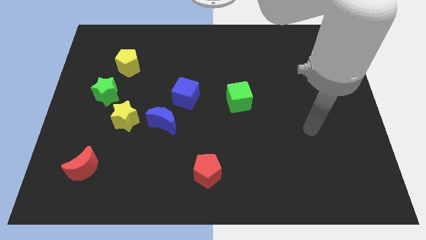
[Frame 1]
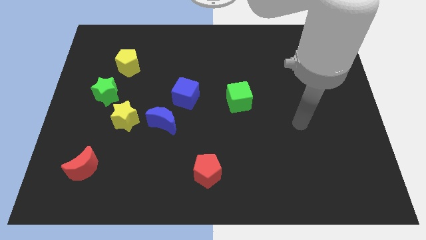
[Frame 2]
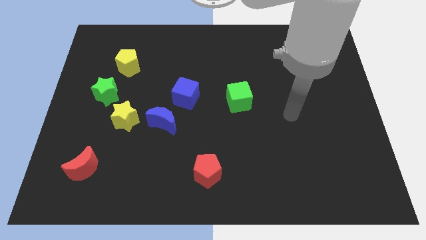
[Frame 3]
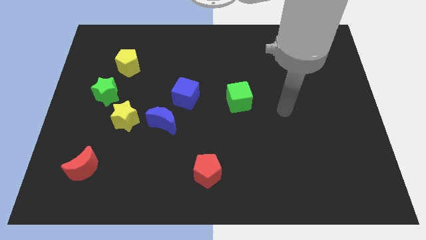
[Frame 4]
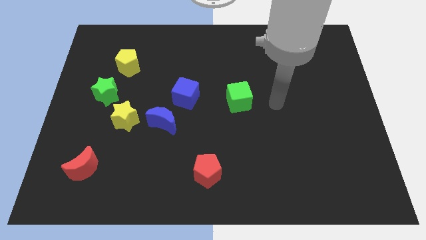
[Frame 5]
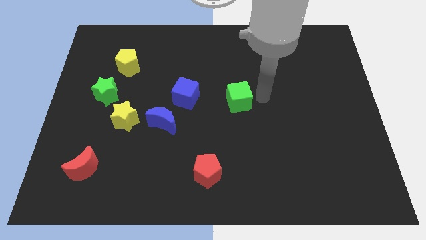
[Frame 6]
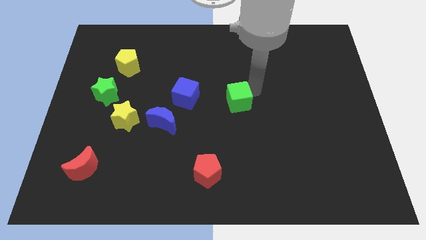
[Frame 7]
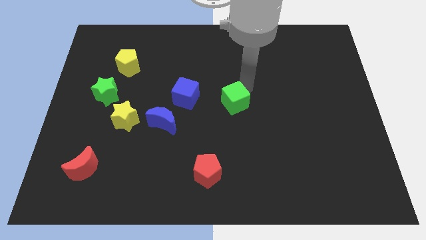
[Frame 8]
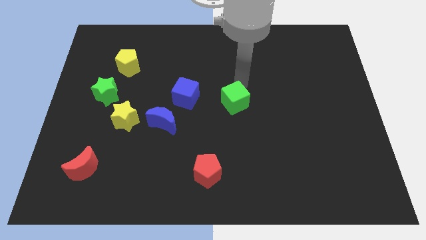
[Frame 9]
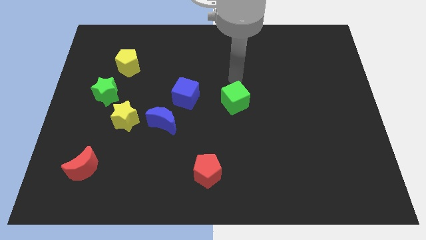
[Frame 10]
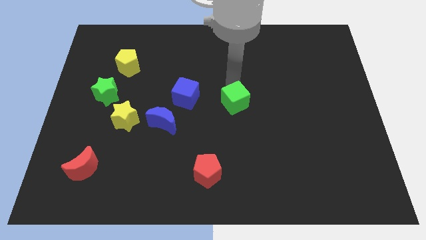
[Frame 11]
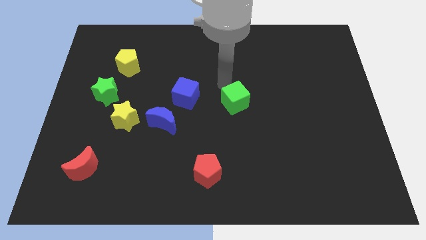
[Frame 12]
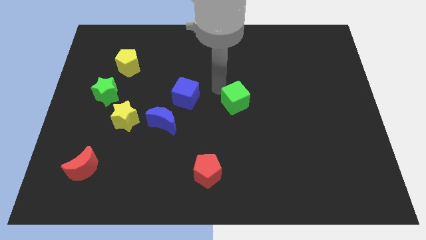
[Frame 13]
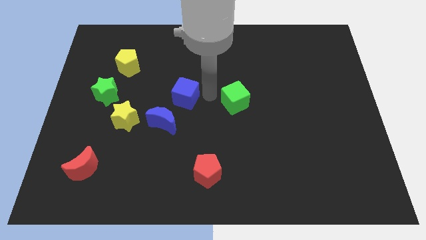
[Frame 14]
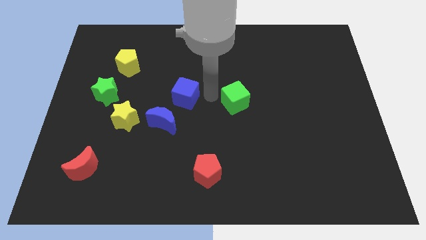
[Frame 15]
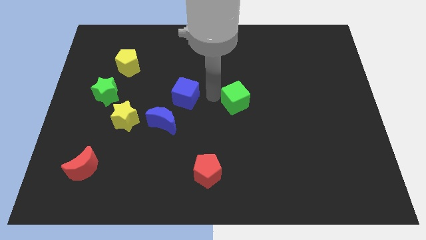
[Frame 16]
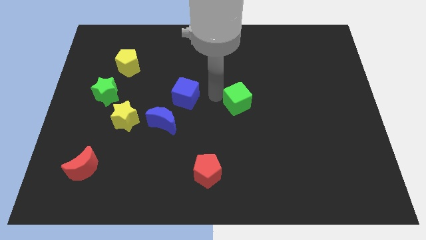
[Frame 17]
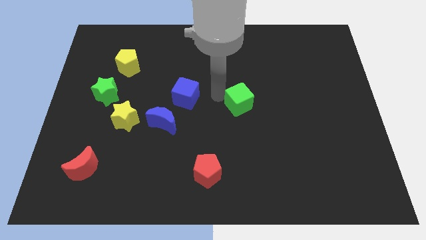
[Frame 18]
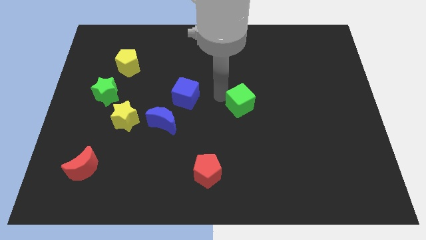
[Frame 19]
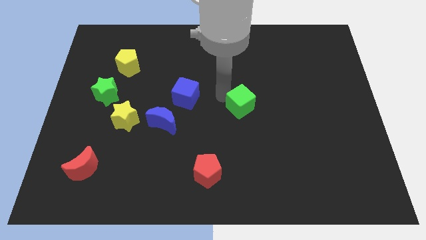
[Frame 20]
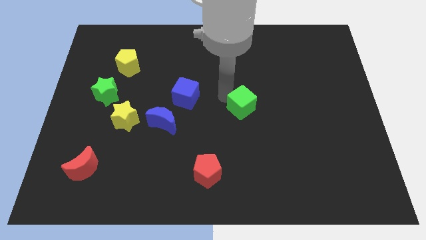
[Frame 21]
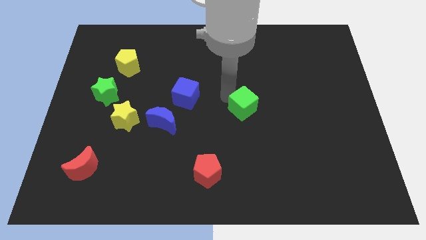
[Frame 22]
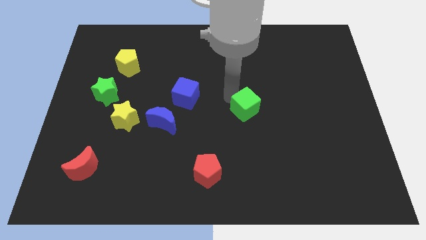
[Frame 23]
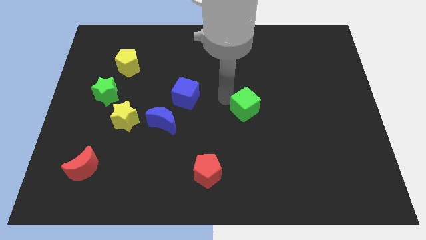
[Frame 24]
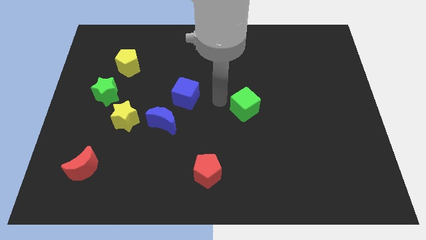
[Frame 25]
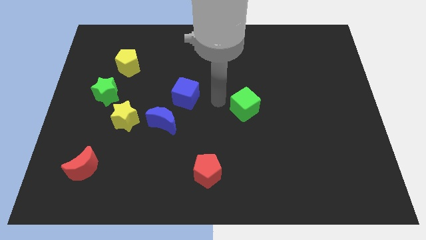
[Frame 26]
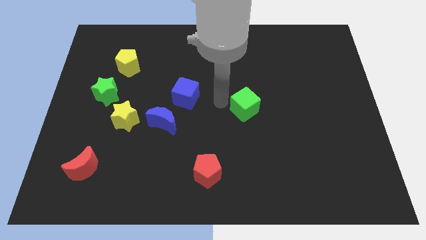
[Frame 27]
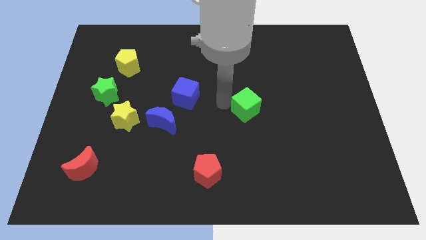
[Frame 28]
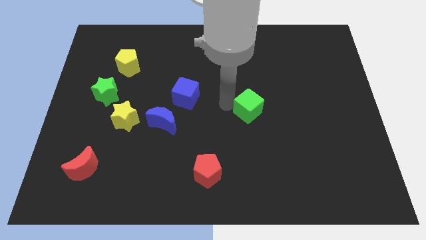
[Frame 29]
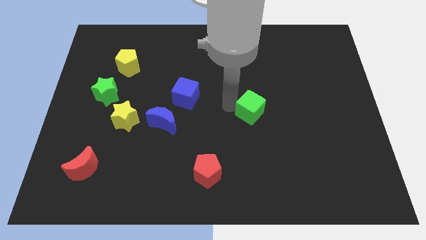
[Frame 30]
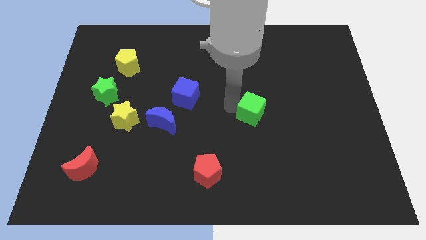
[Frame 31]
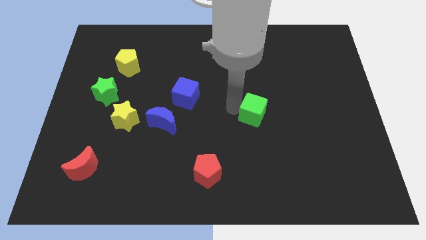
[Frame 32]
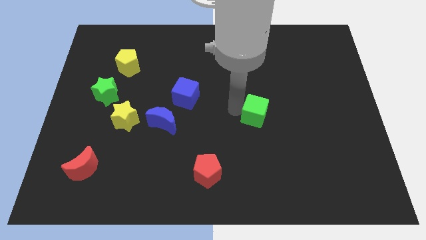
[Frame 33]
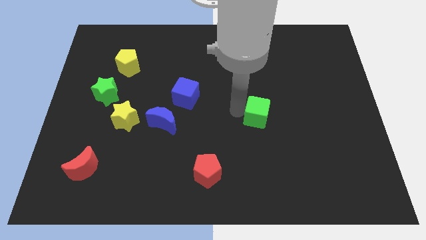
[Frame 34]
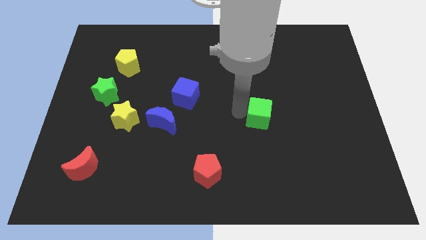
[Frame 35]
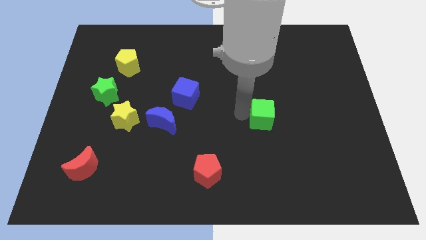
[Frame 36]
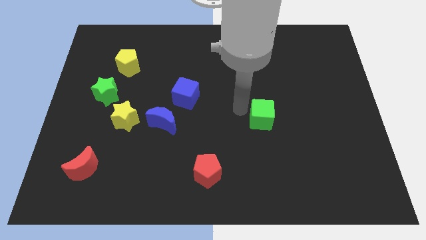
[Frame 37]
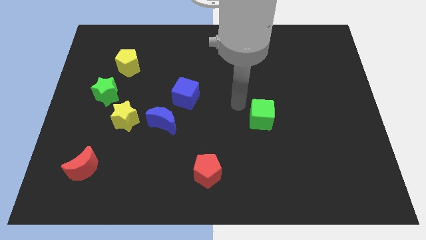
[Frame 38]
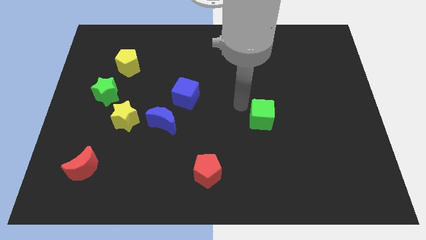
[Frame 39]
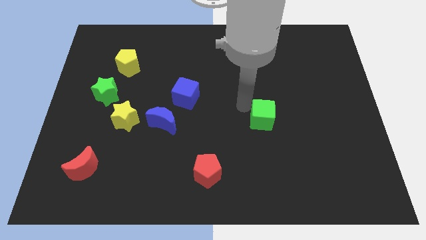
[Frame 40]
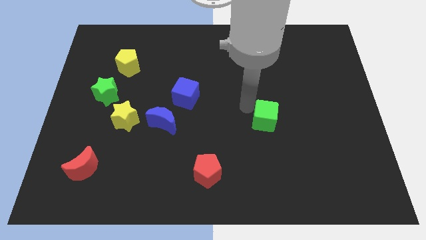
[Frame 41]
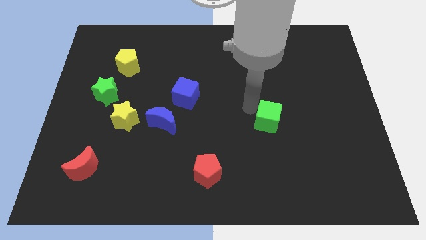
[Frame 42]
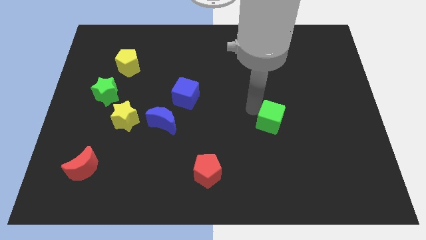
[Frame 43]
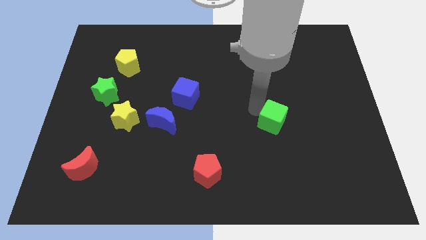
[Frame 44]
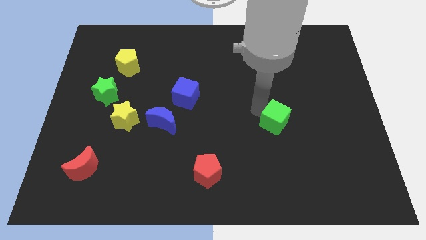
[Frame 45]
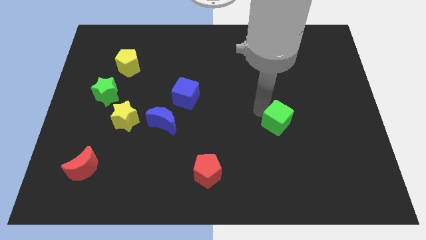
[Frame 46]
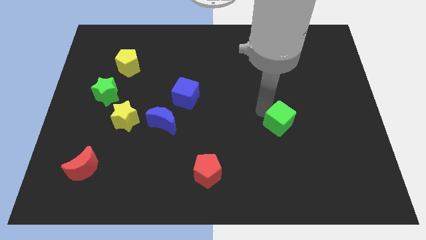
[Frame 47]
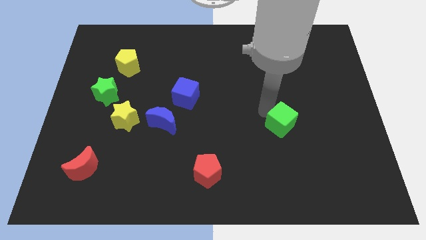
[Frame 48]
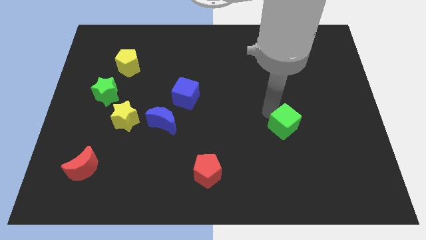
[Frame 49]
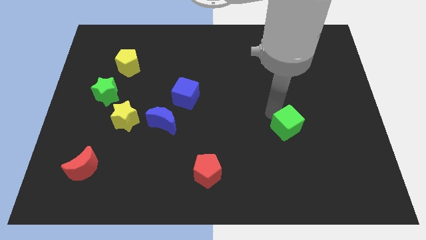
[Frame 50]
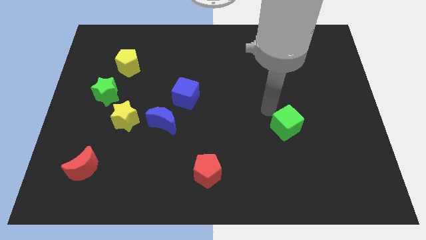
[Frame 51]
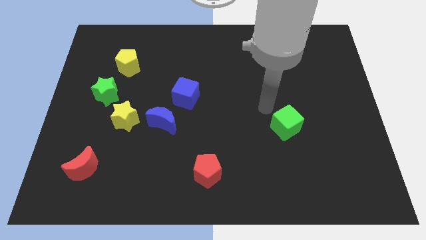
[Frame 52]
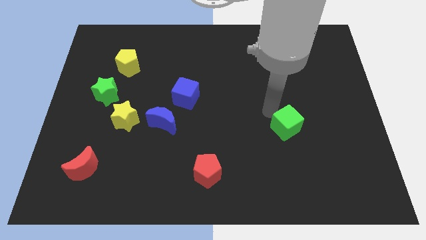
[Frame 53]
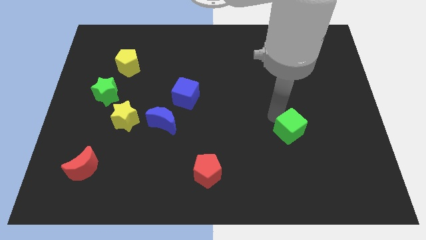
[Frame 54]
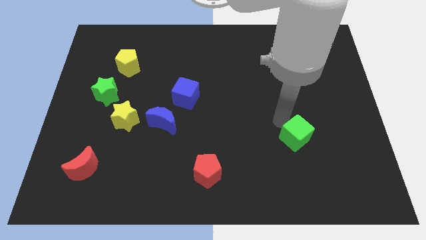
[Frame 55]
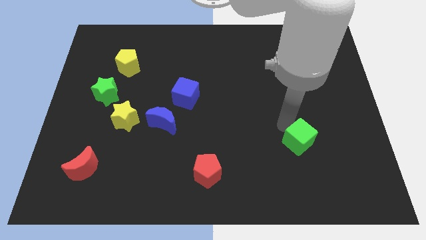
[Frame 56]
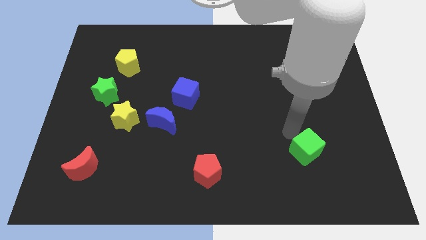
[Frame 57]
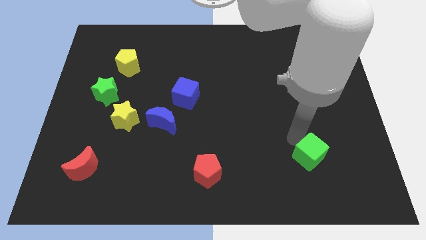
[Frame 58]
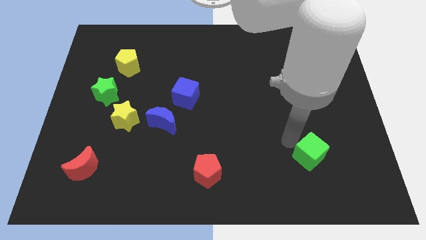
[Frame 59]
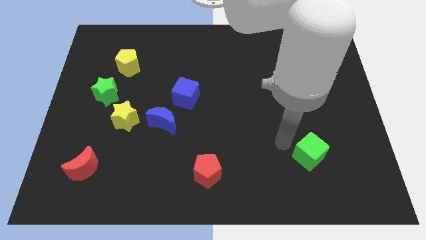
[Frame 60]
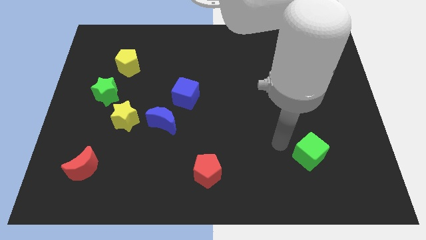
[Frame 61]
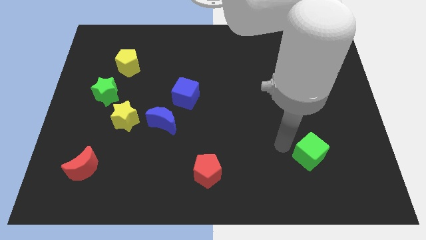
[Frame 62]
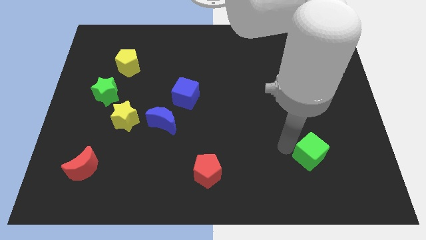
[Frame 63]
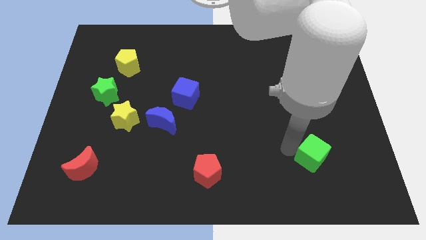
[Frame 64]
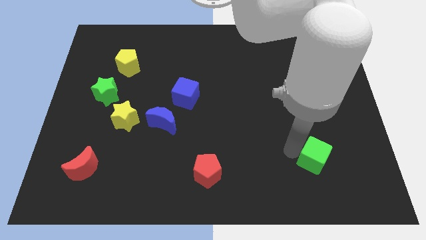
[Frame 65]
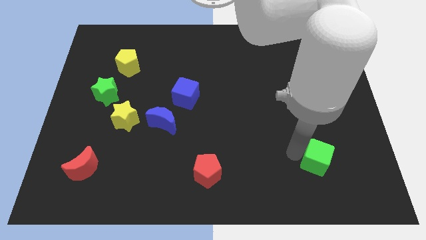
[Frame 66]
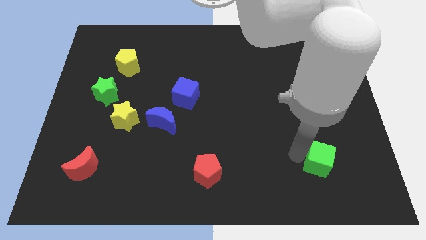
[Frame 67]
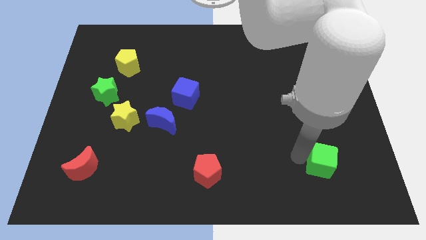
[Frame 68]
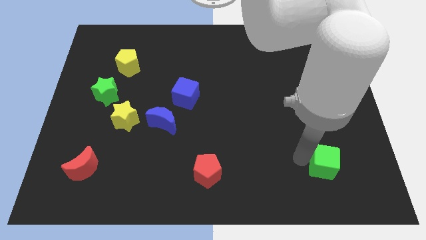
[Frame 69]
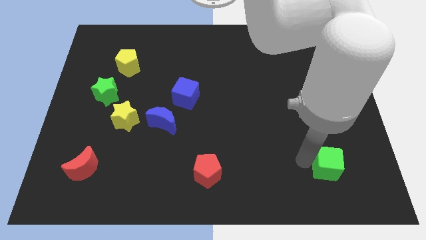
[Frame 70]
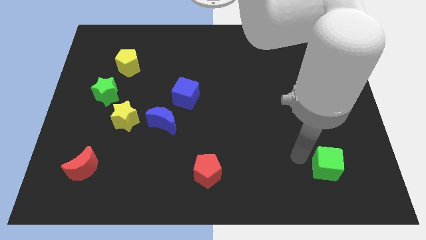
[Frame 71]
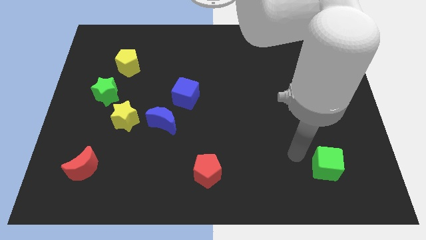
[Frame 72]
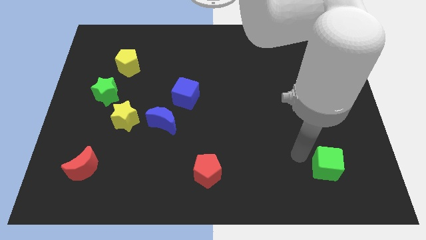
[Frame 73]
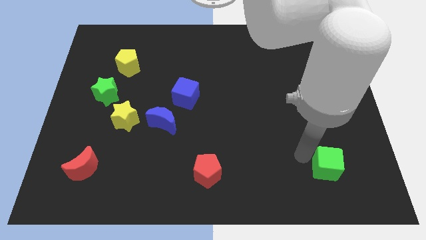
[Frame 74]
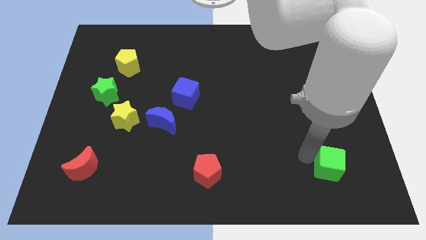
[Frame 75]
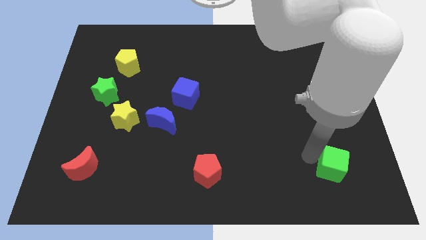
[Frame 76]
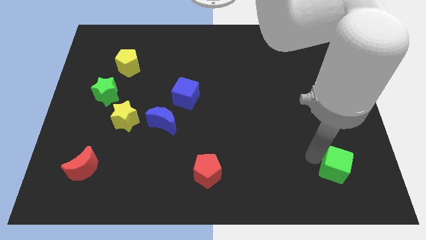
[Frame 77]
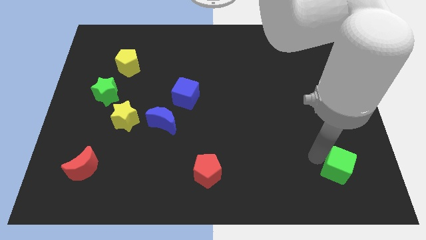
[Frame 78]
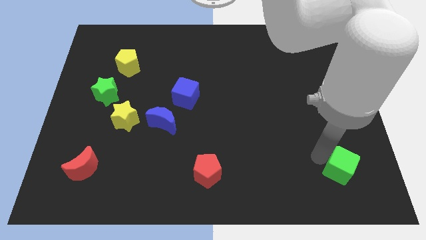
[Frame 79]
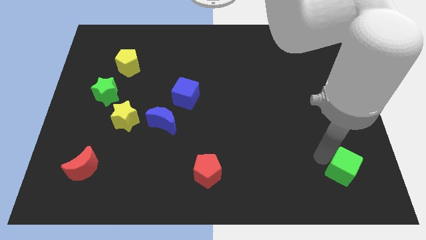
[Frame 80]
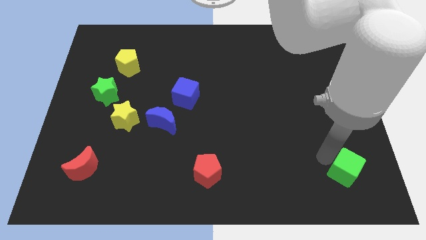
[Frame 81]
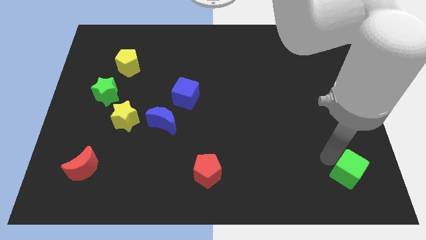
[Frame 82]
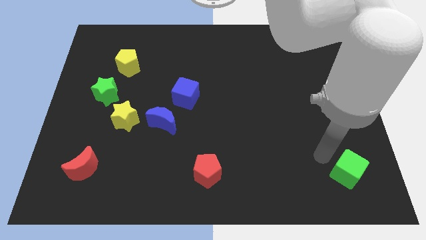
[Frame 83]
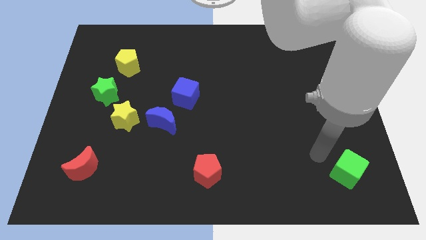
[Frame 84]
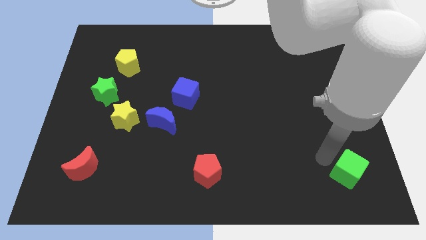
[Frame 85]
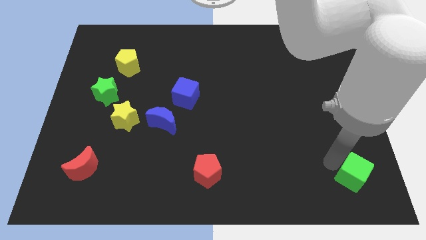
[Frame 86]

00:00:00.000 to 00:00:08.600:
move the green cube to the lower right corner
